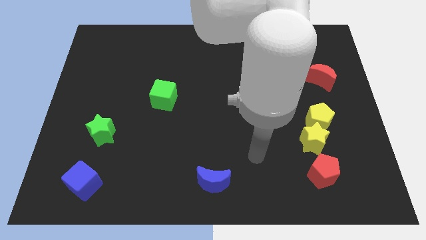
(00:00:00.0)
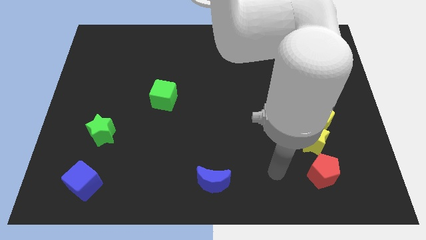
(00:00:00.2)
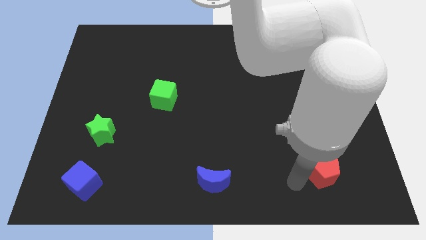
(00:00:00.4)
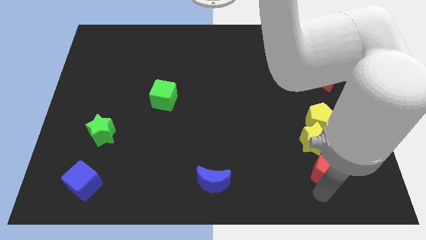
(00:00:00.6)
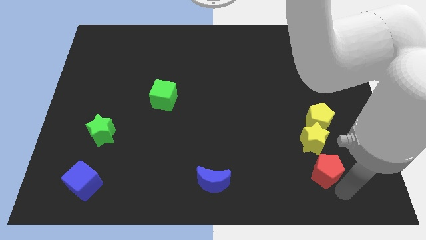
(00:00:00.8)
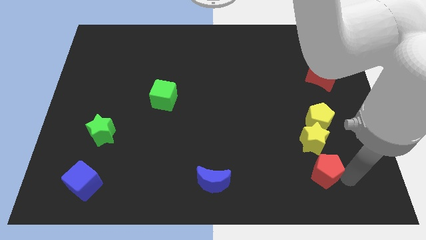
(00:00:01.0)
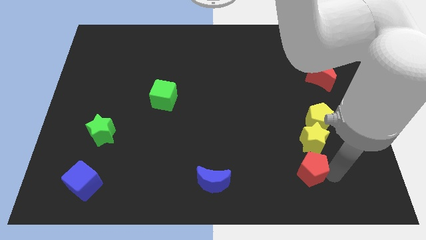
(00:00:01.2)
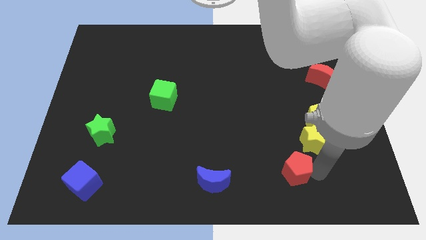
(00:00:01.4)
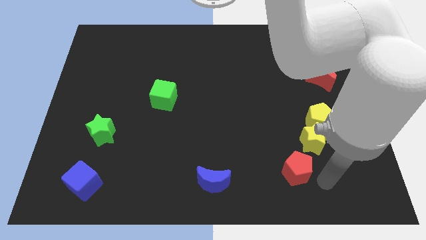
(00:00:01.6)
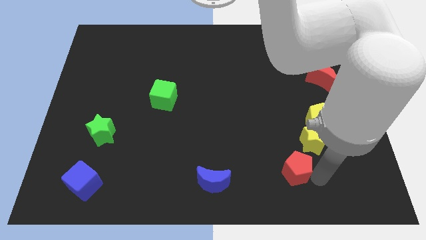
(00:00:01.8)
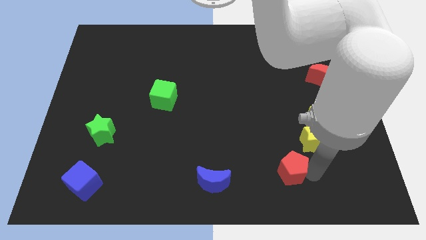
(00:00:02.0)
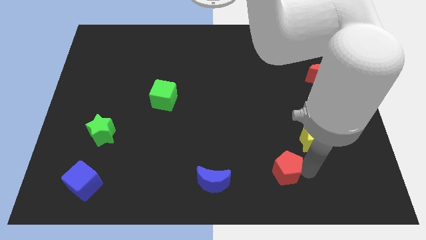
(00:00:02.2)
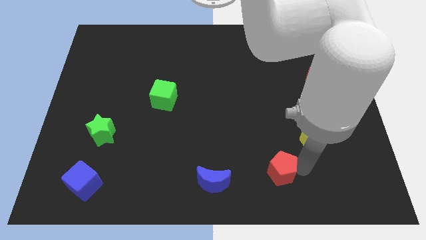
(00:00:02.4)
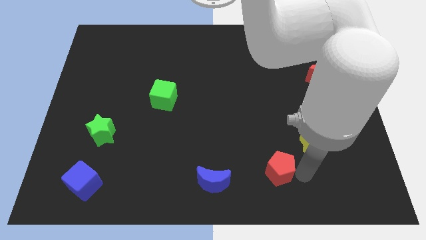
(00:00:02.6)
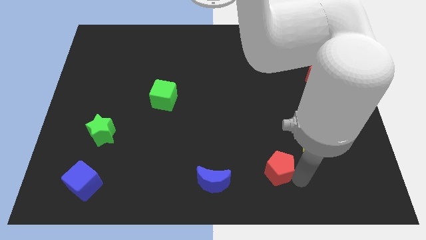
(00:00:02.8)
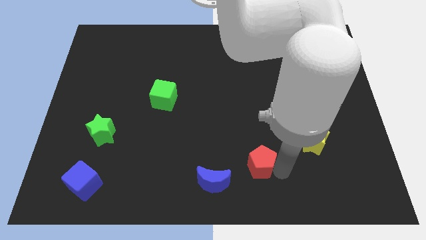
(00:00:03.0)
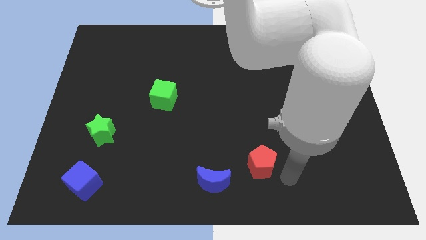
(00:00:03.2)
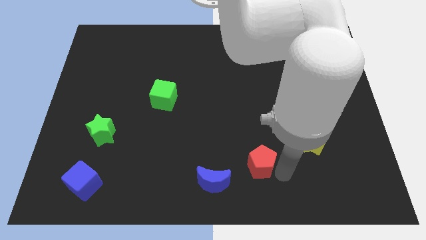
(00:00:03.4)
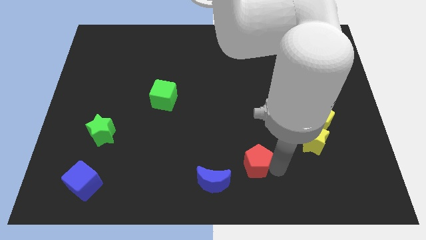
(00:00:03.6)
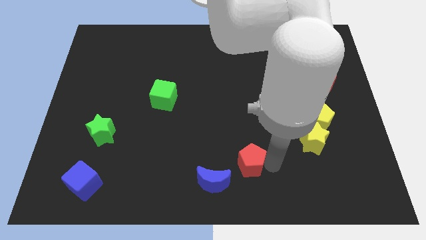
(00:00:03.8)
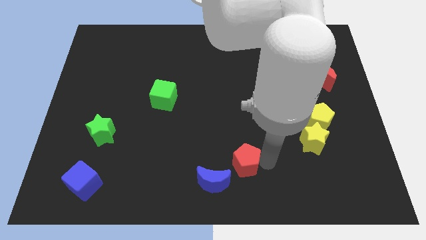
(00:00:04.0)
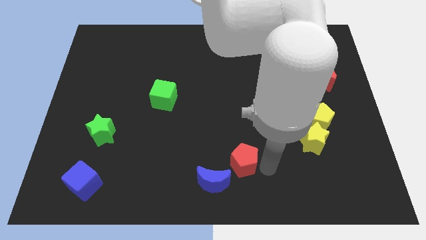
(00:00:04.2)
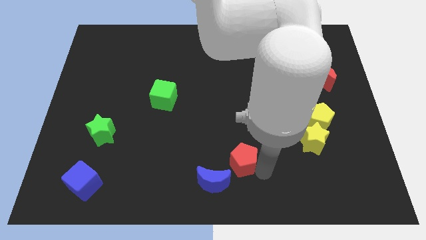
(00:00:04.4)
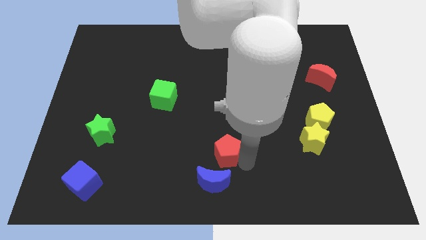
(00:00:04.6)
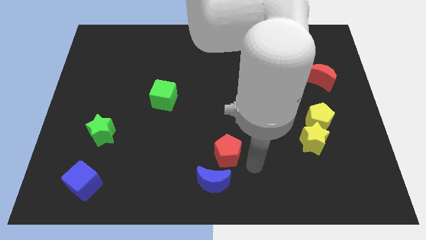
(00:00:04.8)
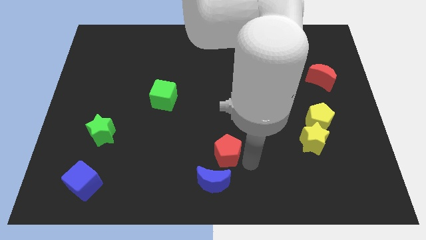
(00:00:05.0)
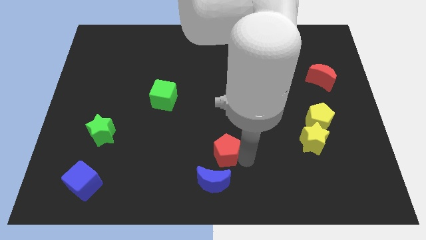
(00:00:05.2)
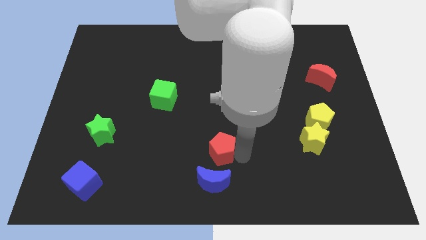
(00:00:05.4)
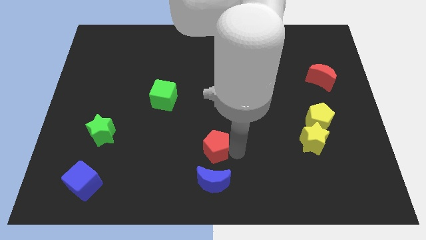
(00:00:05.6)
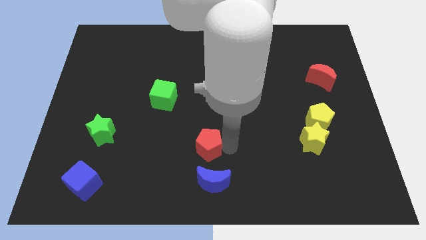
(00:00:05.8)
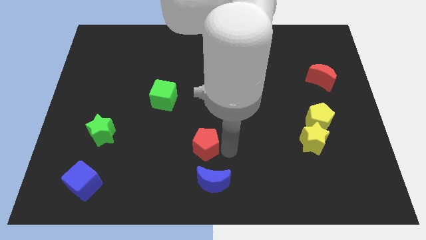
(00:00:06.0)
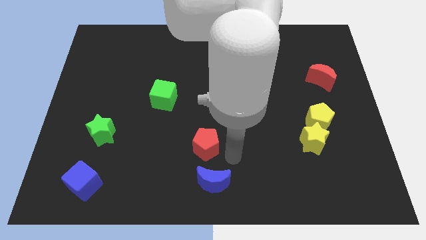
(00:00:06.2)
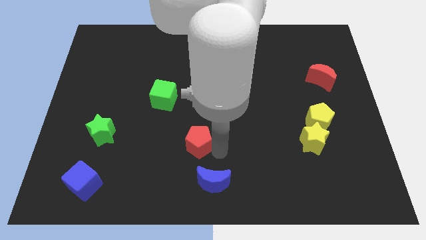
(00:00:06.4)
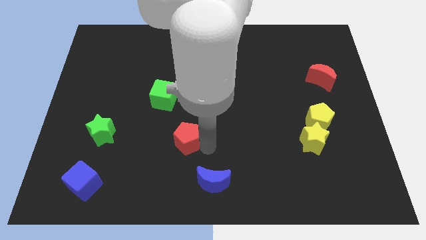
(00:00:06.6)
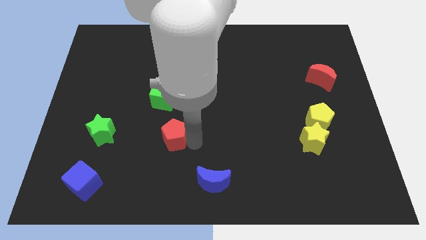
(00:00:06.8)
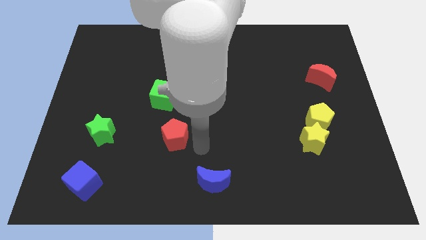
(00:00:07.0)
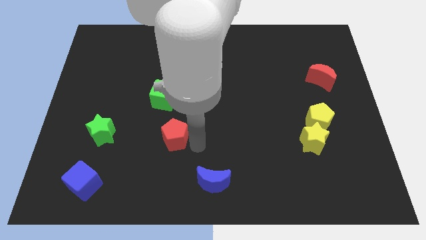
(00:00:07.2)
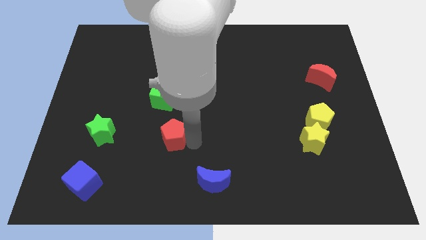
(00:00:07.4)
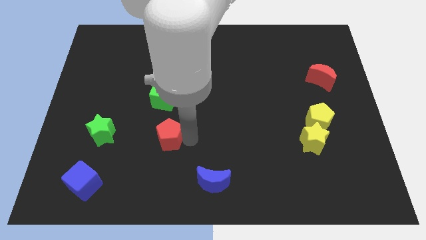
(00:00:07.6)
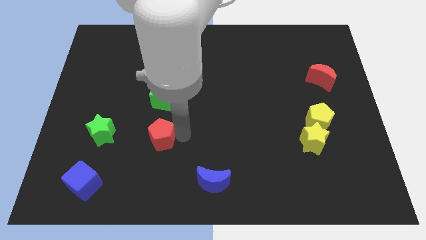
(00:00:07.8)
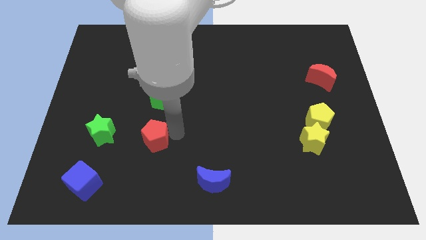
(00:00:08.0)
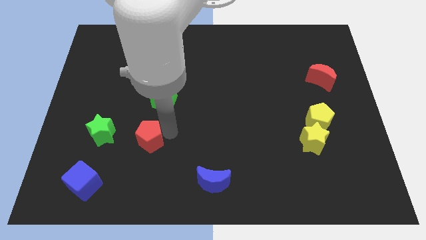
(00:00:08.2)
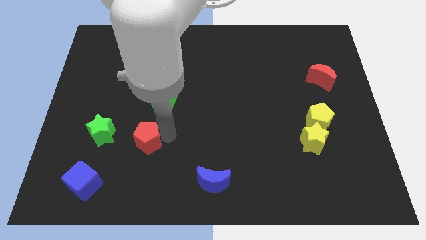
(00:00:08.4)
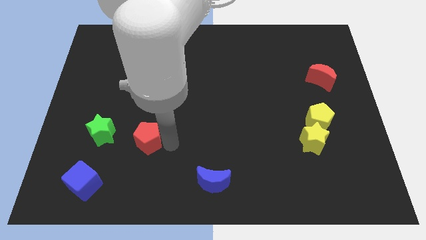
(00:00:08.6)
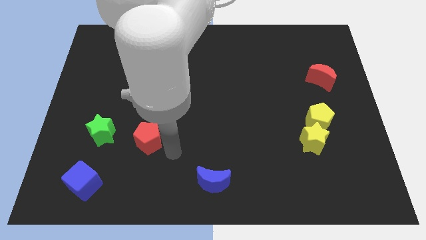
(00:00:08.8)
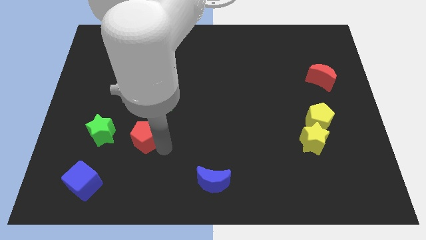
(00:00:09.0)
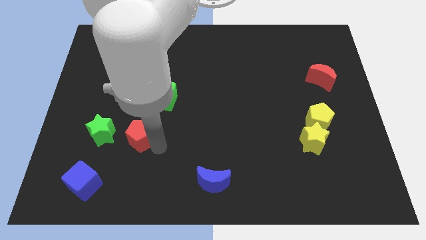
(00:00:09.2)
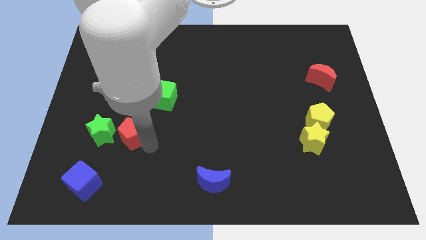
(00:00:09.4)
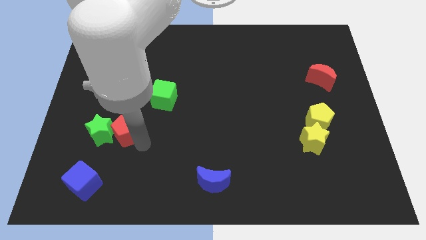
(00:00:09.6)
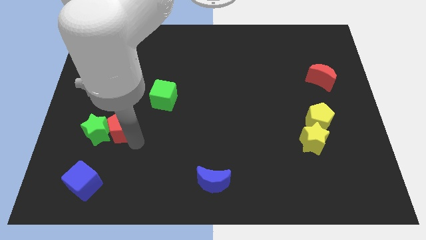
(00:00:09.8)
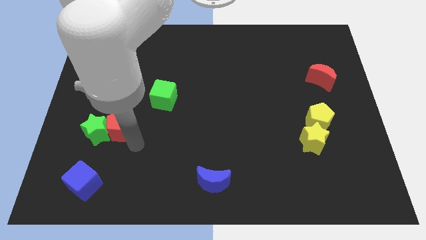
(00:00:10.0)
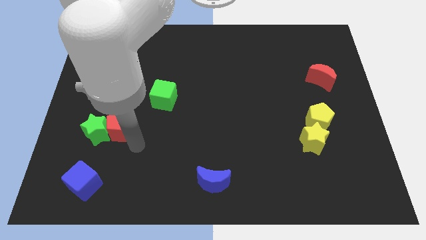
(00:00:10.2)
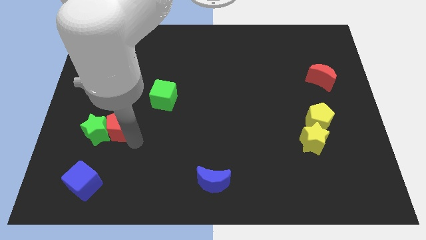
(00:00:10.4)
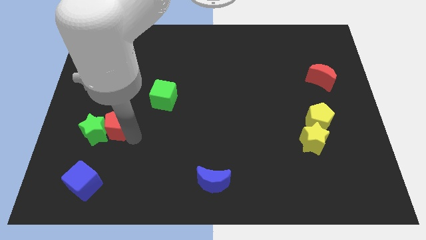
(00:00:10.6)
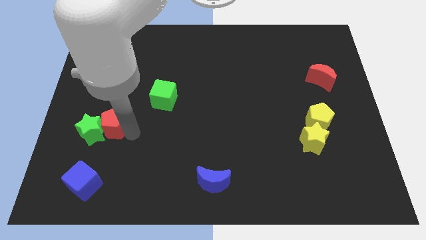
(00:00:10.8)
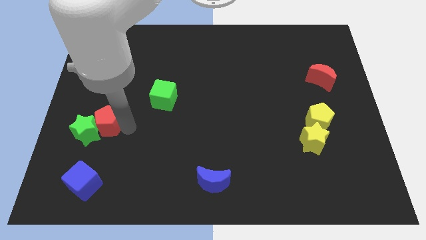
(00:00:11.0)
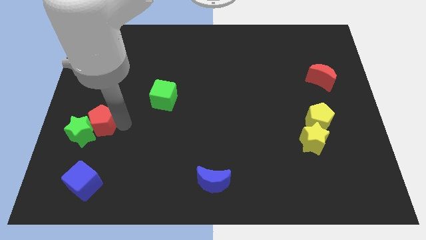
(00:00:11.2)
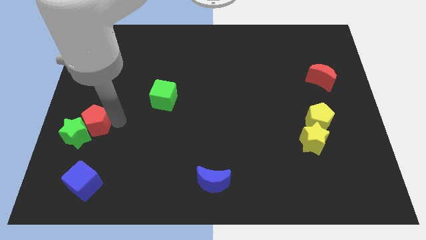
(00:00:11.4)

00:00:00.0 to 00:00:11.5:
slide the red pentagon to the center left
